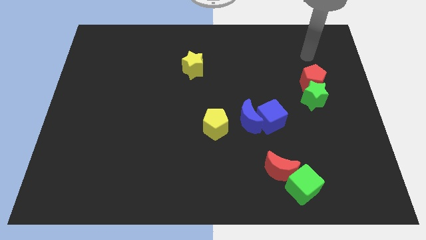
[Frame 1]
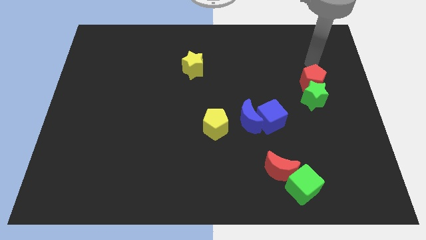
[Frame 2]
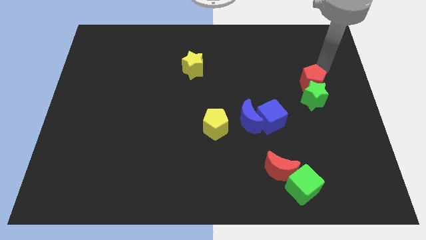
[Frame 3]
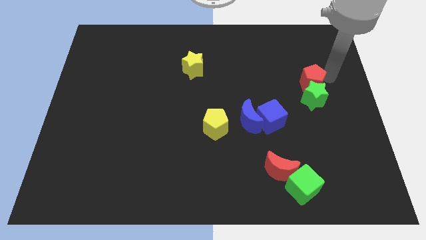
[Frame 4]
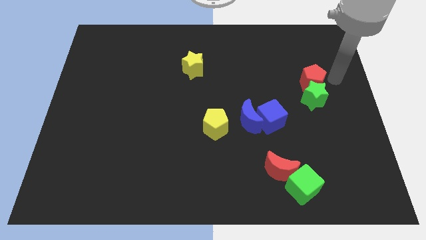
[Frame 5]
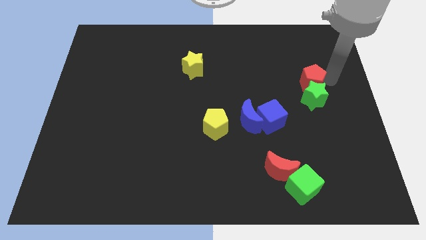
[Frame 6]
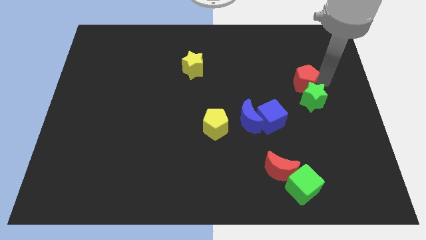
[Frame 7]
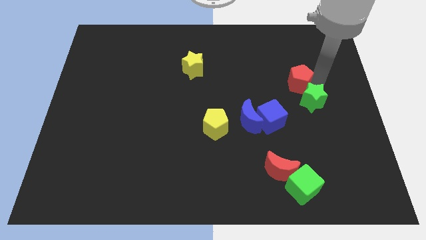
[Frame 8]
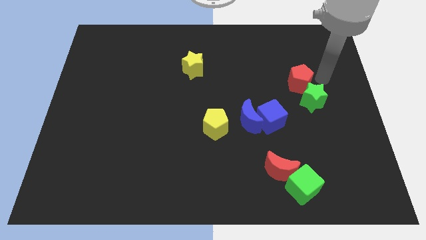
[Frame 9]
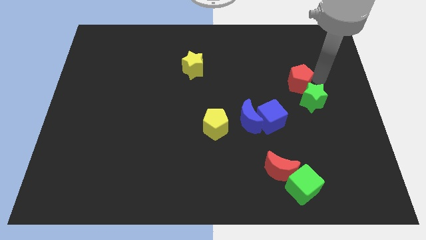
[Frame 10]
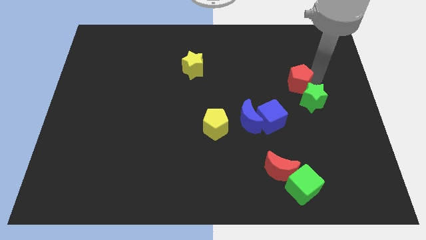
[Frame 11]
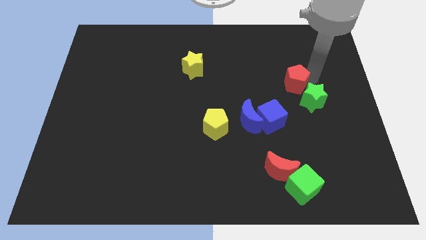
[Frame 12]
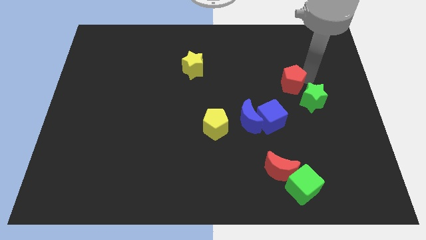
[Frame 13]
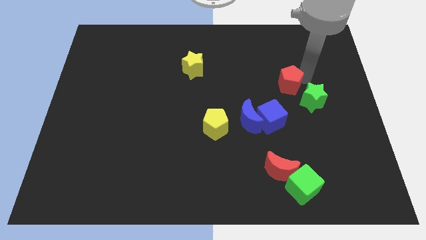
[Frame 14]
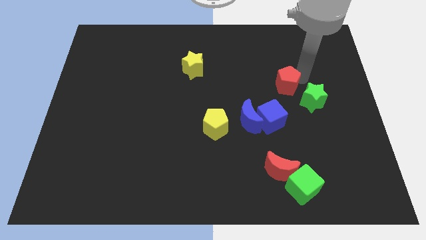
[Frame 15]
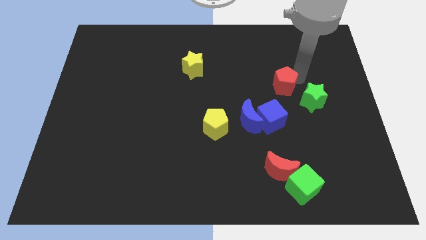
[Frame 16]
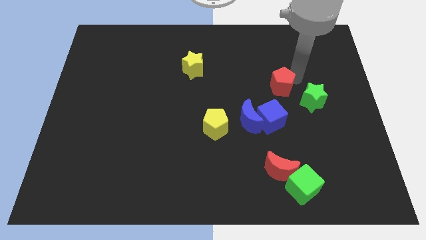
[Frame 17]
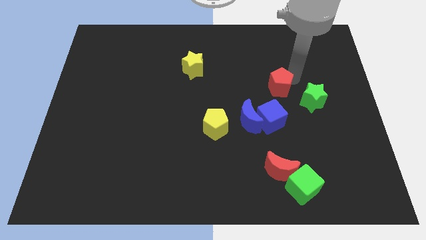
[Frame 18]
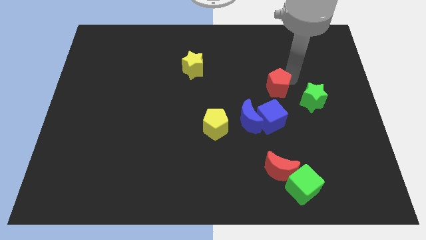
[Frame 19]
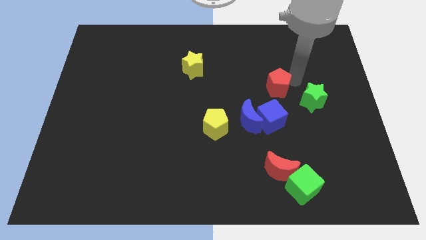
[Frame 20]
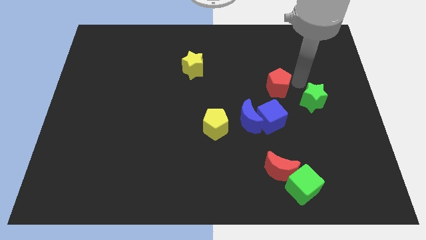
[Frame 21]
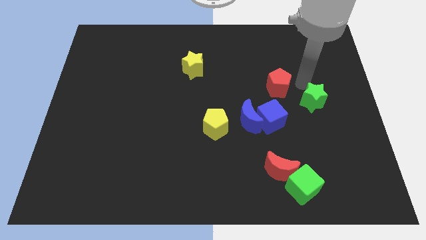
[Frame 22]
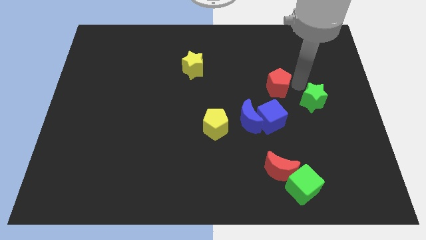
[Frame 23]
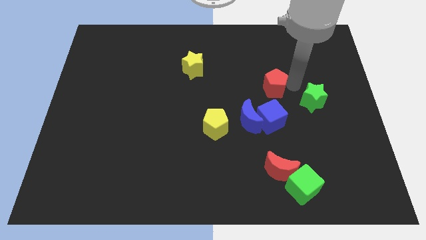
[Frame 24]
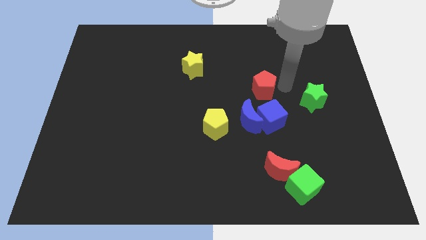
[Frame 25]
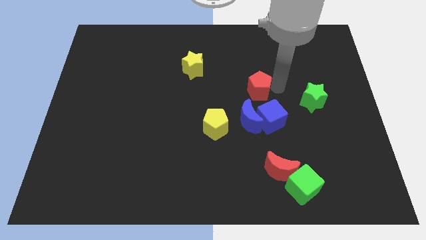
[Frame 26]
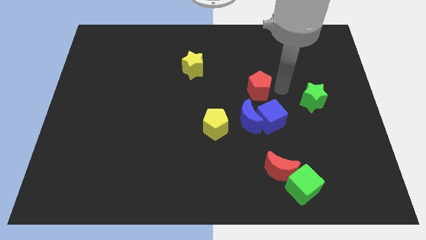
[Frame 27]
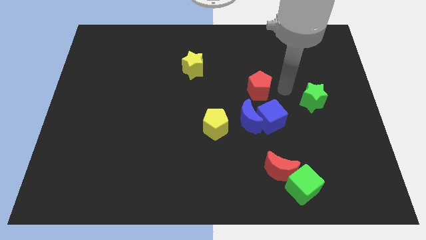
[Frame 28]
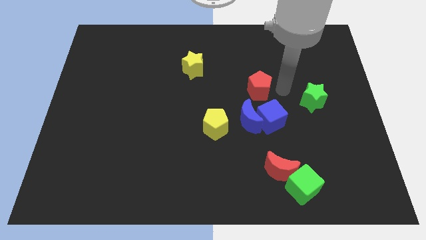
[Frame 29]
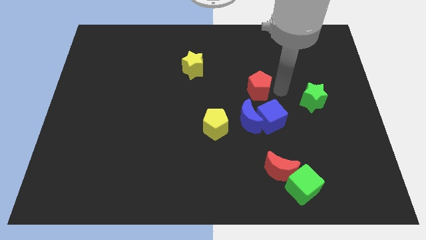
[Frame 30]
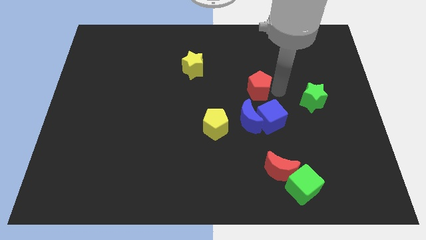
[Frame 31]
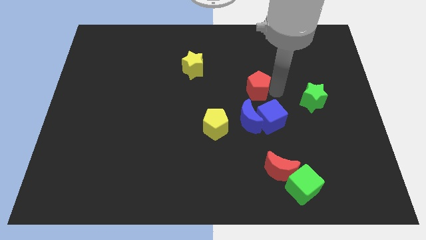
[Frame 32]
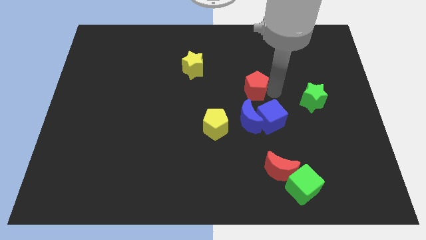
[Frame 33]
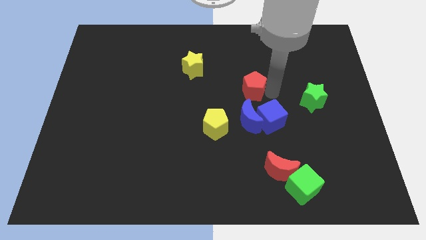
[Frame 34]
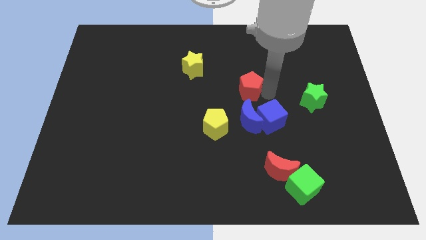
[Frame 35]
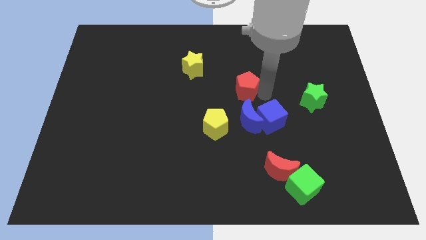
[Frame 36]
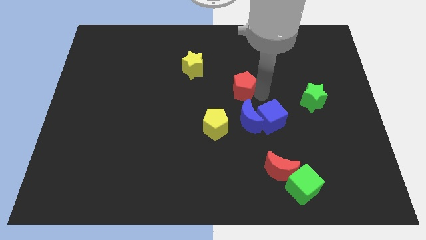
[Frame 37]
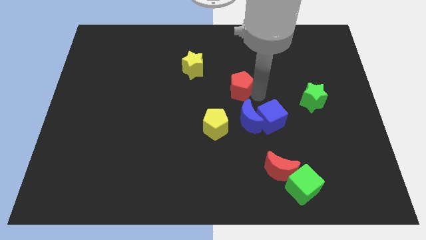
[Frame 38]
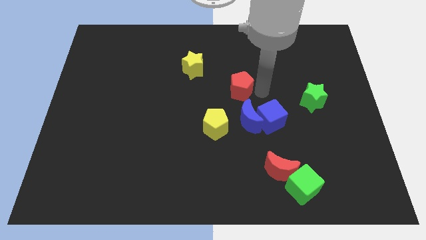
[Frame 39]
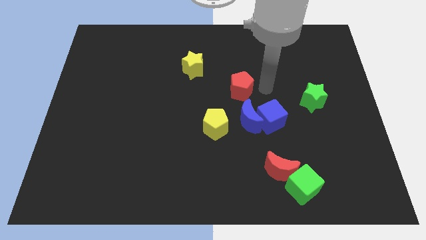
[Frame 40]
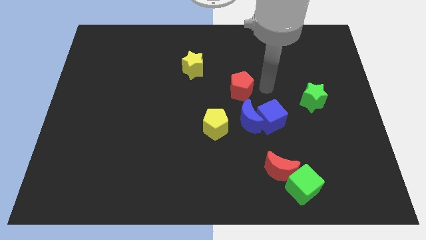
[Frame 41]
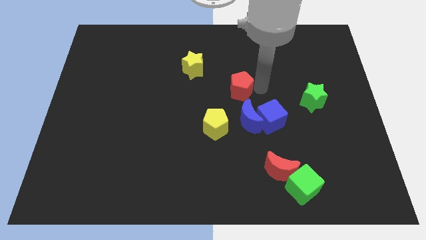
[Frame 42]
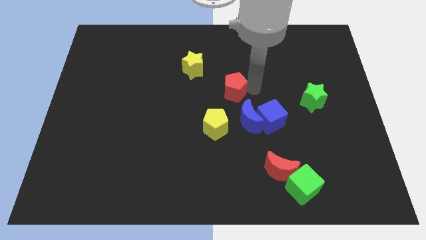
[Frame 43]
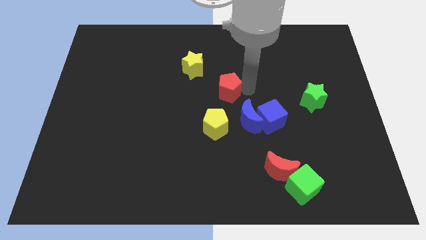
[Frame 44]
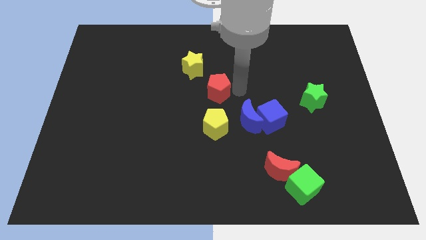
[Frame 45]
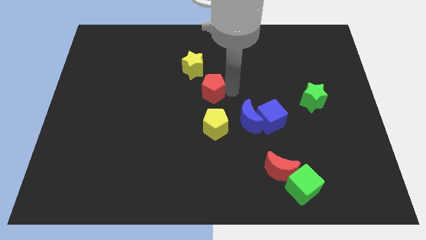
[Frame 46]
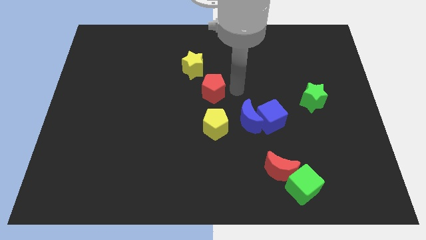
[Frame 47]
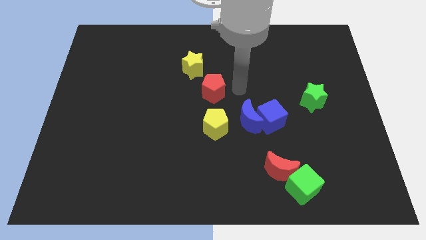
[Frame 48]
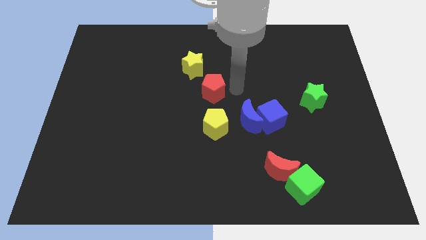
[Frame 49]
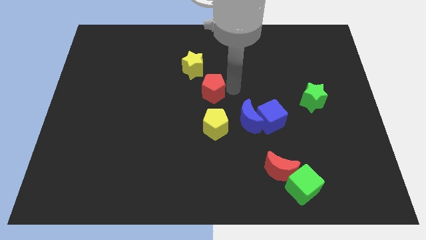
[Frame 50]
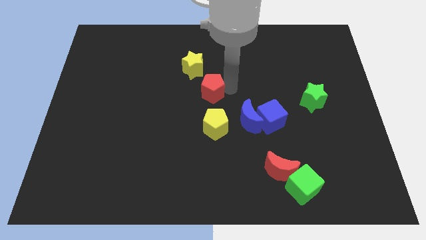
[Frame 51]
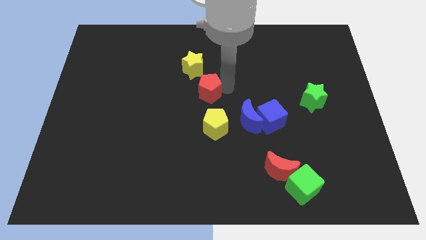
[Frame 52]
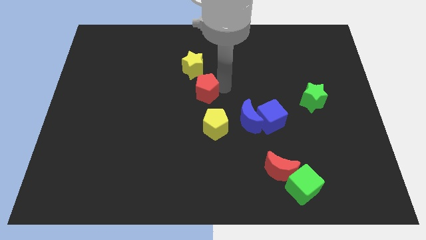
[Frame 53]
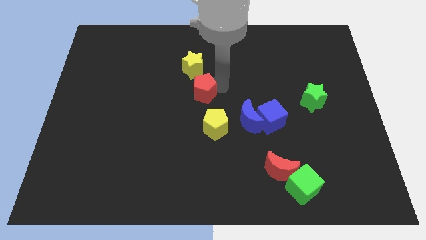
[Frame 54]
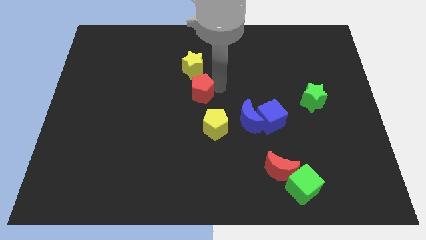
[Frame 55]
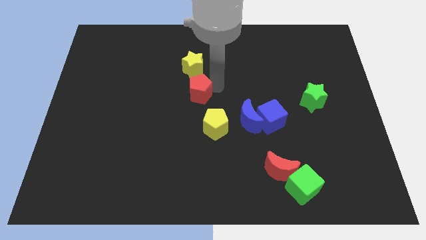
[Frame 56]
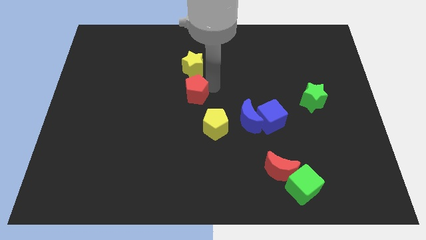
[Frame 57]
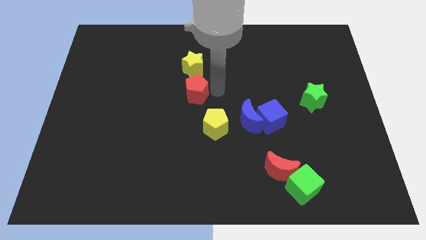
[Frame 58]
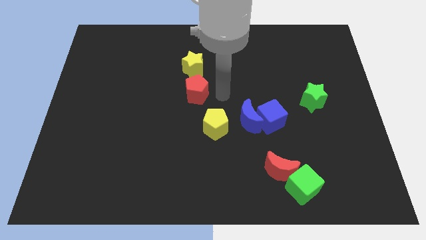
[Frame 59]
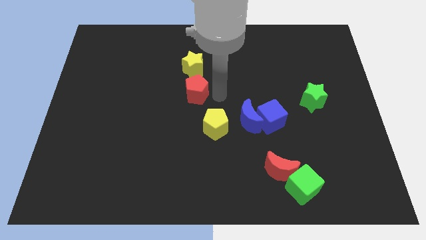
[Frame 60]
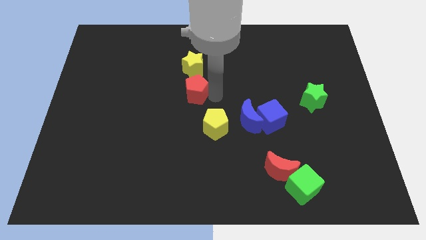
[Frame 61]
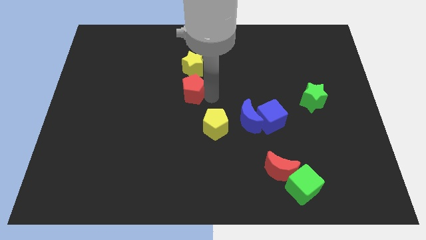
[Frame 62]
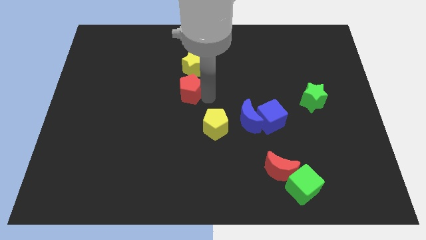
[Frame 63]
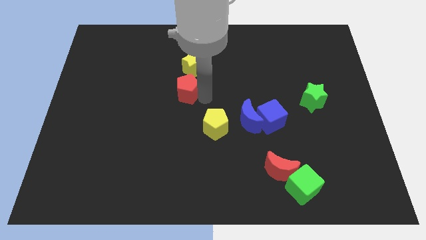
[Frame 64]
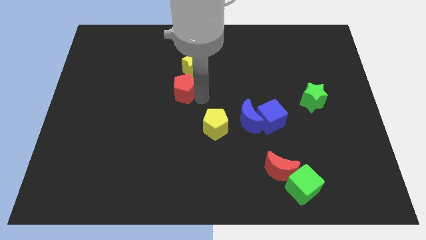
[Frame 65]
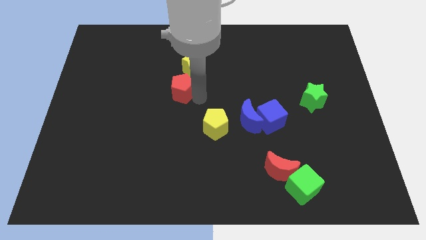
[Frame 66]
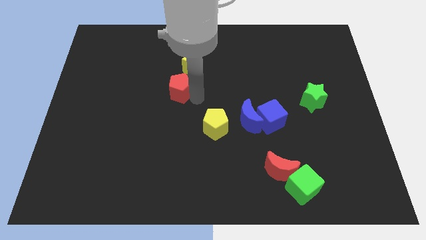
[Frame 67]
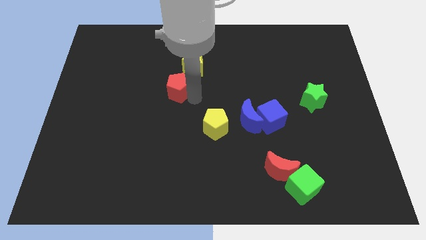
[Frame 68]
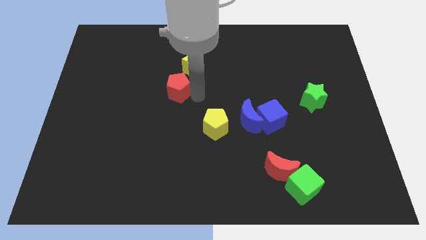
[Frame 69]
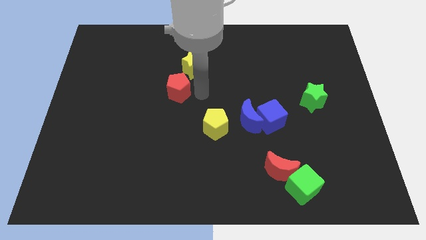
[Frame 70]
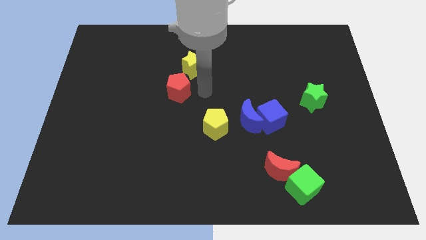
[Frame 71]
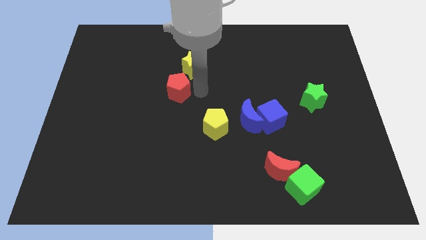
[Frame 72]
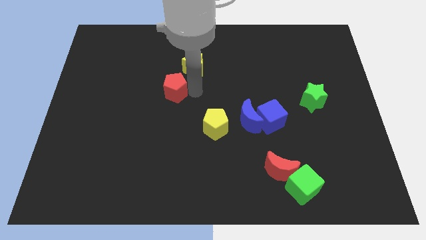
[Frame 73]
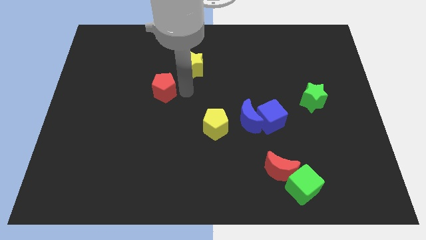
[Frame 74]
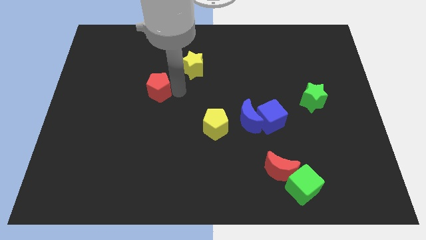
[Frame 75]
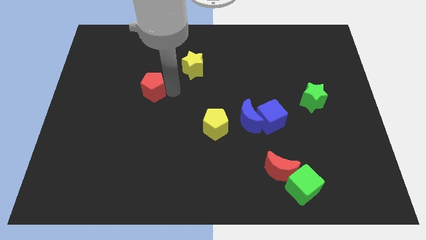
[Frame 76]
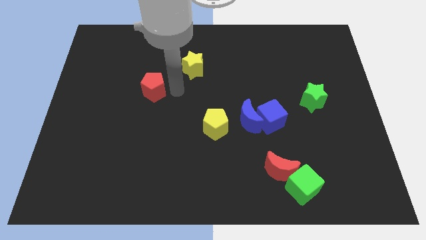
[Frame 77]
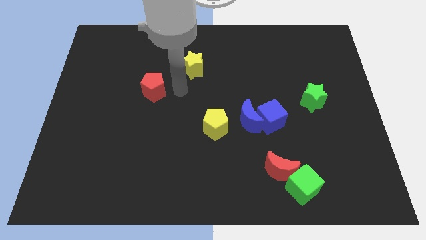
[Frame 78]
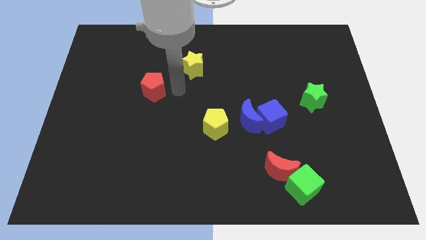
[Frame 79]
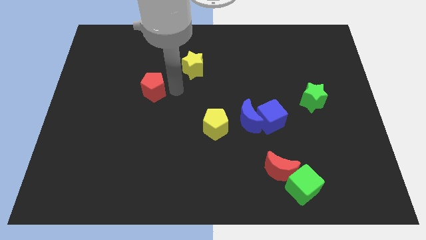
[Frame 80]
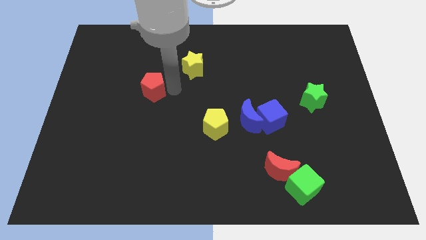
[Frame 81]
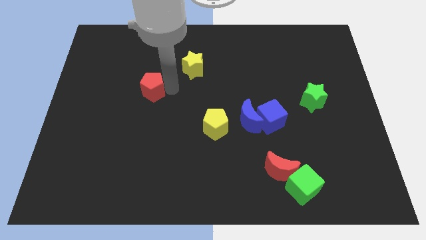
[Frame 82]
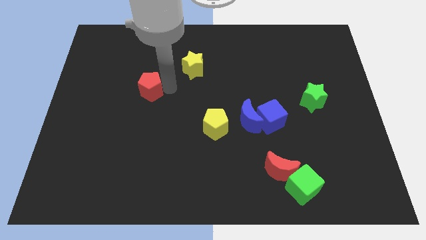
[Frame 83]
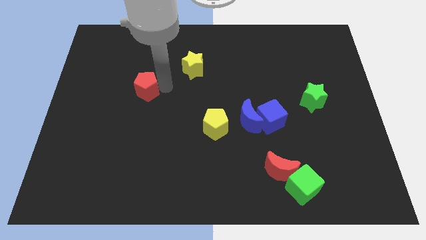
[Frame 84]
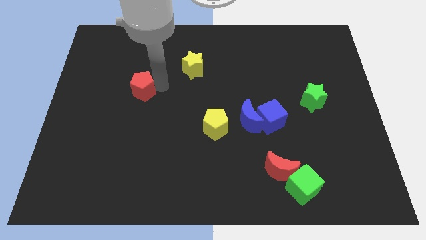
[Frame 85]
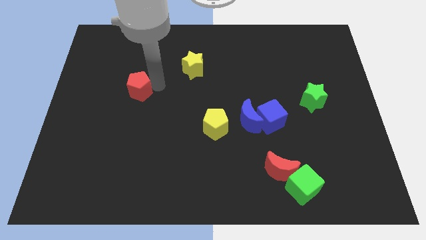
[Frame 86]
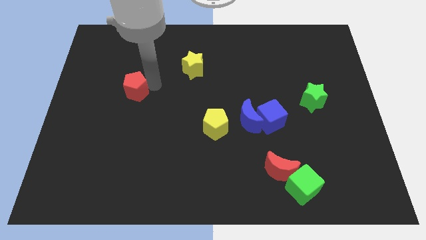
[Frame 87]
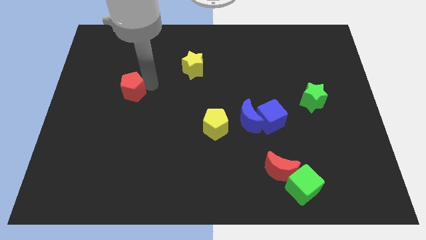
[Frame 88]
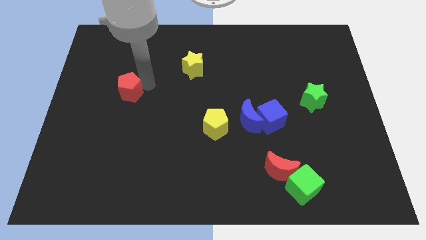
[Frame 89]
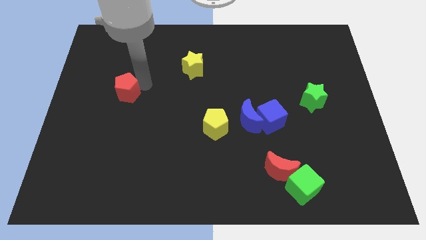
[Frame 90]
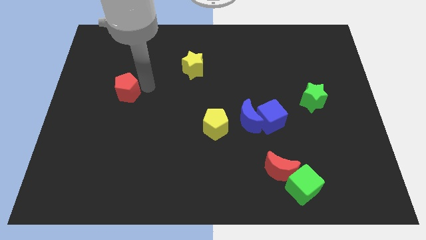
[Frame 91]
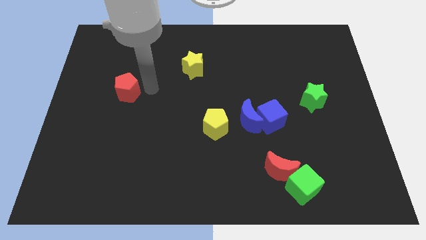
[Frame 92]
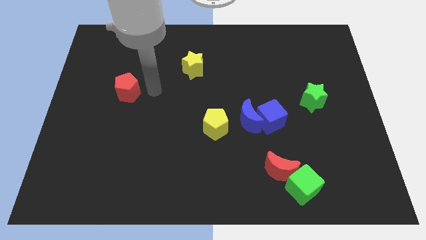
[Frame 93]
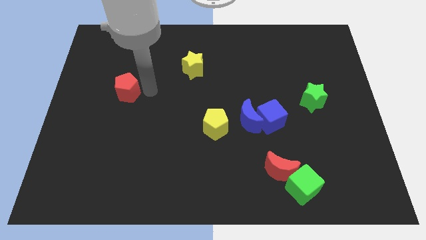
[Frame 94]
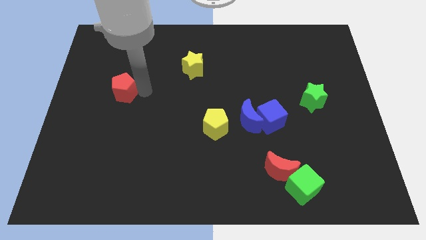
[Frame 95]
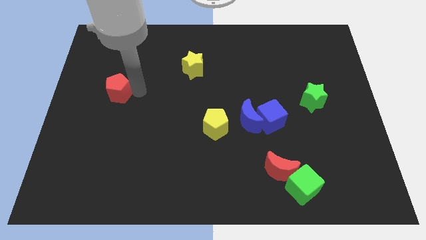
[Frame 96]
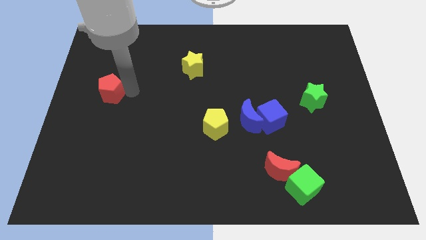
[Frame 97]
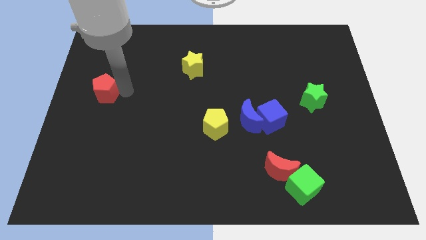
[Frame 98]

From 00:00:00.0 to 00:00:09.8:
slide the red pentagon to the center left
